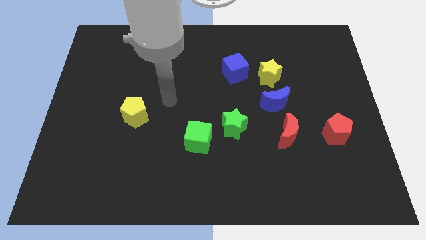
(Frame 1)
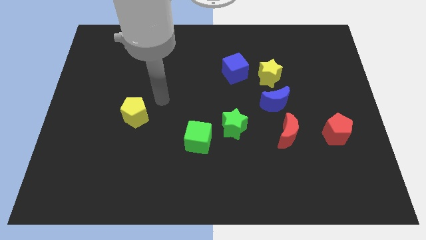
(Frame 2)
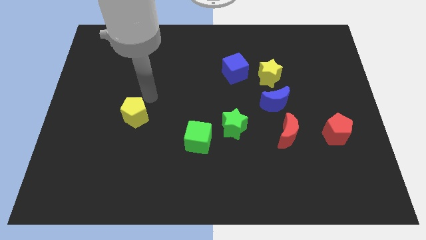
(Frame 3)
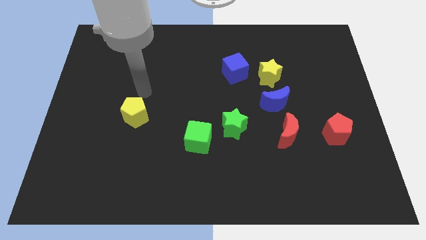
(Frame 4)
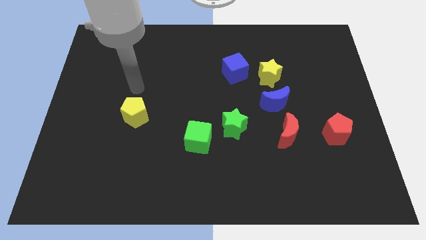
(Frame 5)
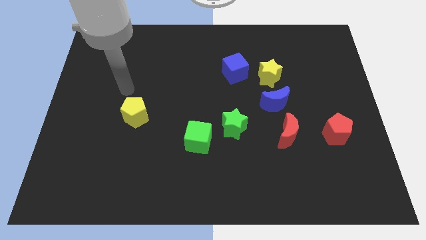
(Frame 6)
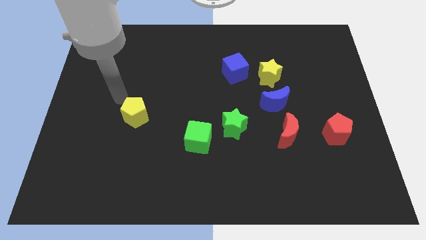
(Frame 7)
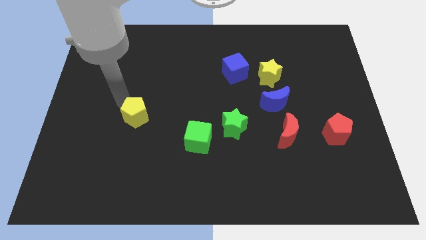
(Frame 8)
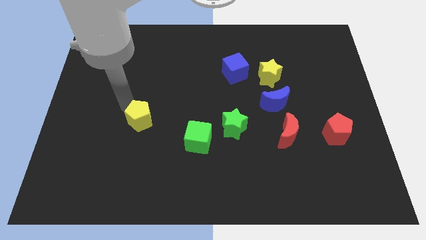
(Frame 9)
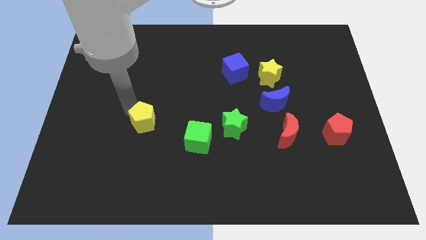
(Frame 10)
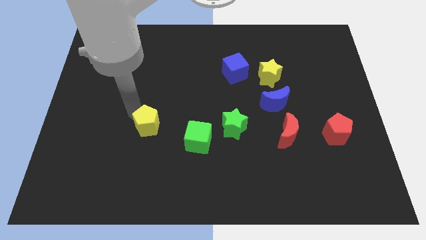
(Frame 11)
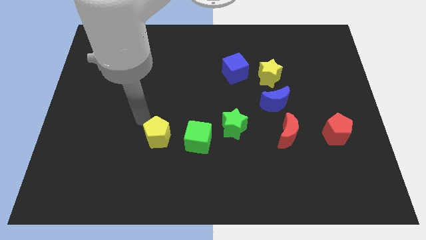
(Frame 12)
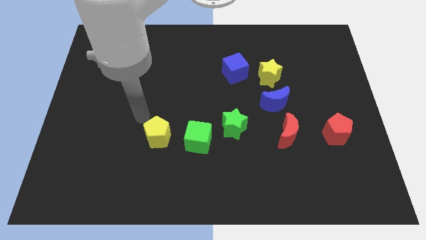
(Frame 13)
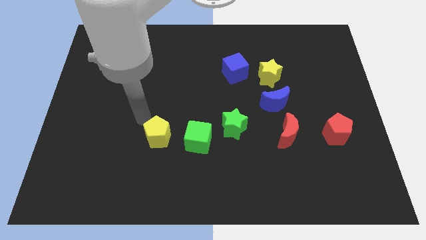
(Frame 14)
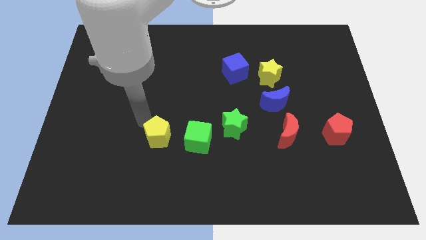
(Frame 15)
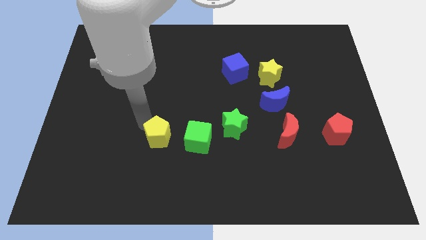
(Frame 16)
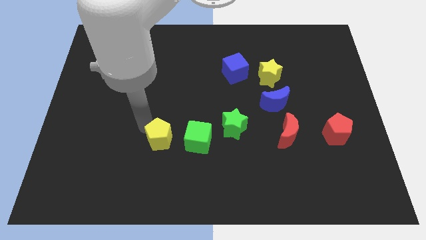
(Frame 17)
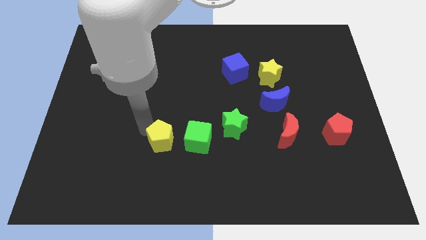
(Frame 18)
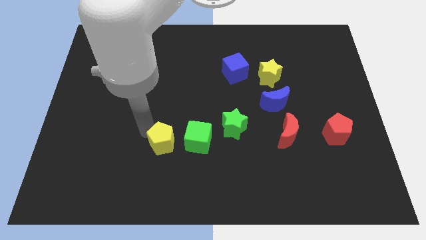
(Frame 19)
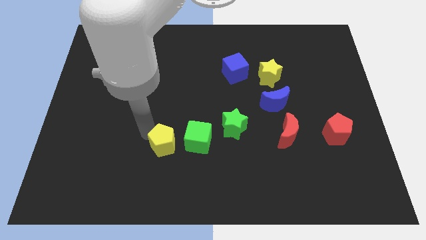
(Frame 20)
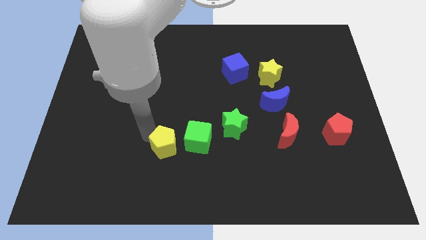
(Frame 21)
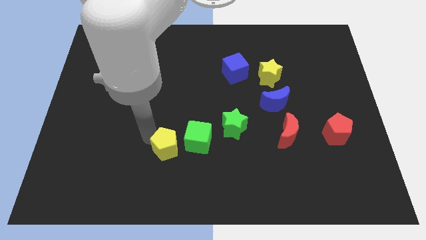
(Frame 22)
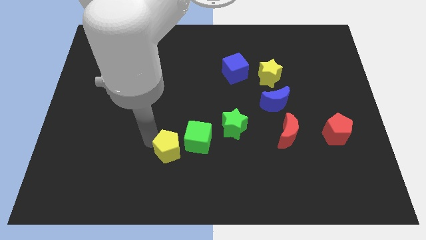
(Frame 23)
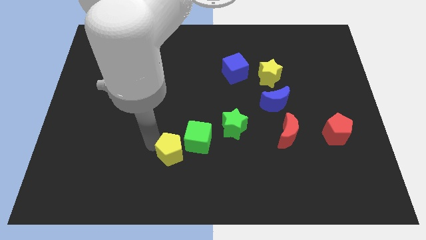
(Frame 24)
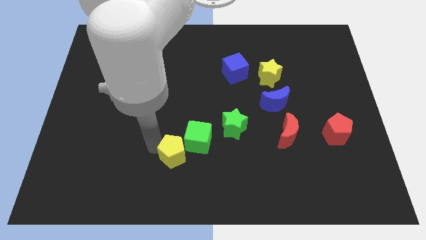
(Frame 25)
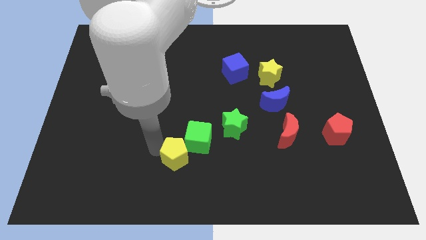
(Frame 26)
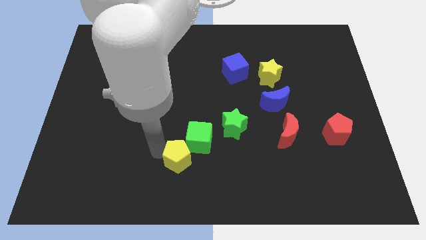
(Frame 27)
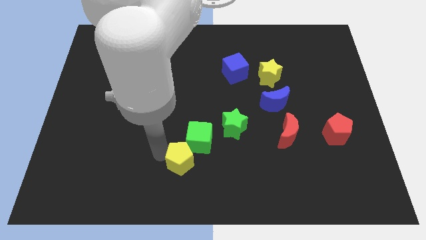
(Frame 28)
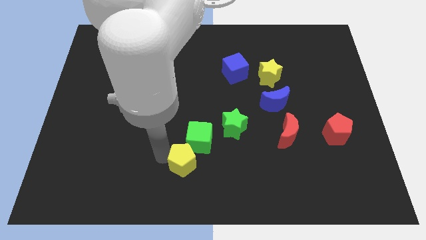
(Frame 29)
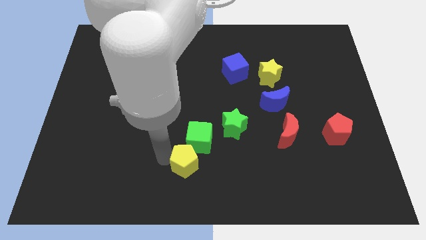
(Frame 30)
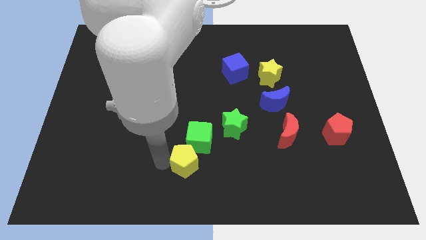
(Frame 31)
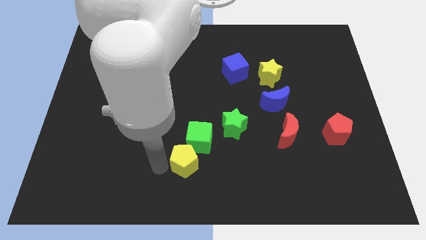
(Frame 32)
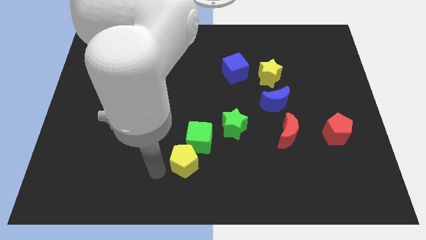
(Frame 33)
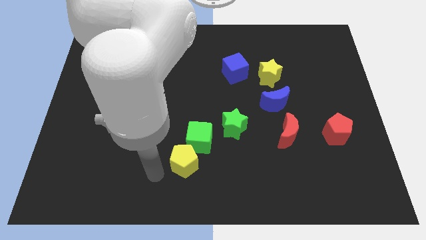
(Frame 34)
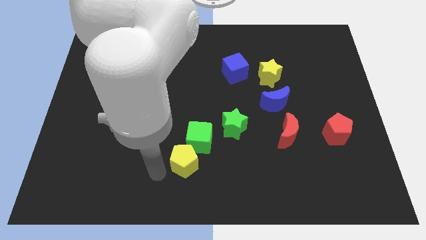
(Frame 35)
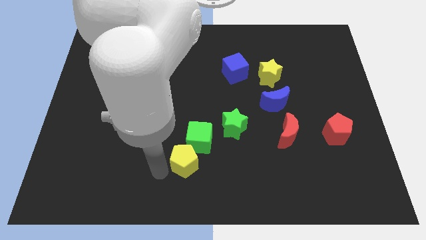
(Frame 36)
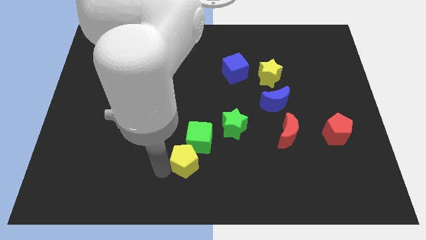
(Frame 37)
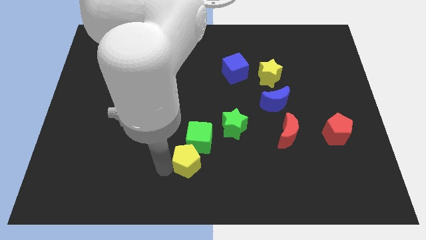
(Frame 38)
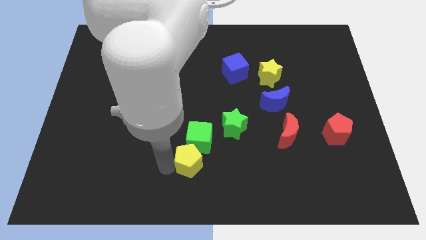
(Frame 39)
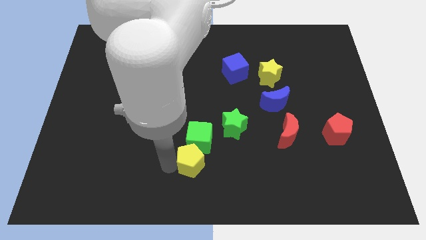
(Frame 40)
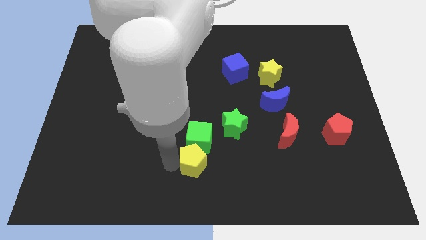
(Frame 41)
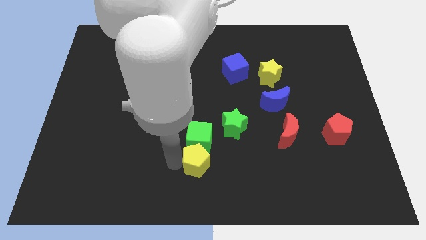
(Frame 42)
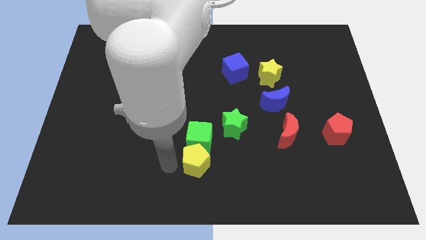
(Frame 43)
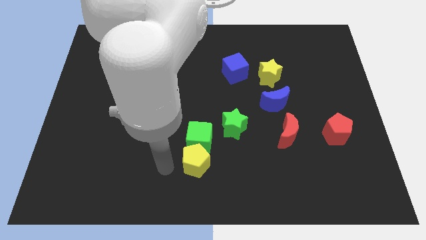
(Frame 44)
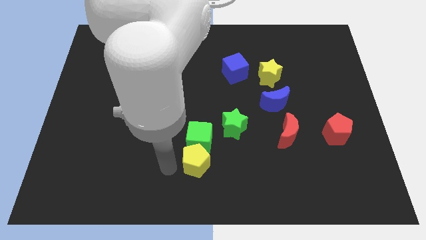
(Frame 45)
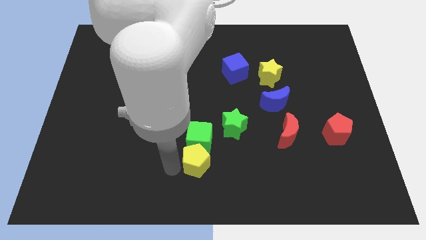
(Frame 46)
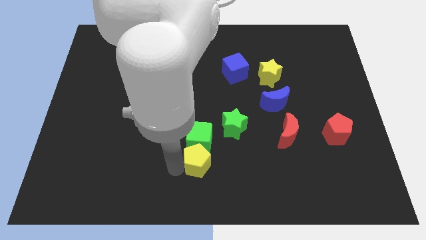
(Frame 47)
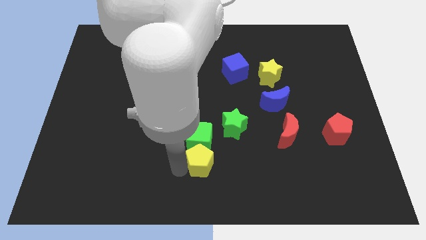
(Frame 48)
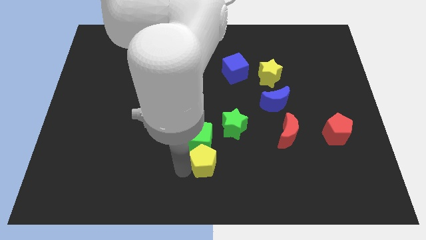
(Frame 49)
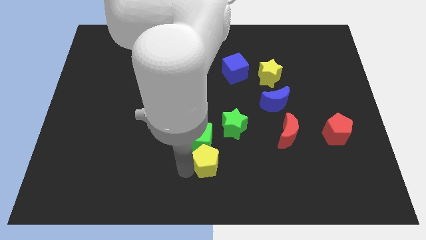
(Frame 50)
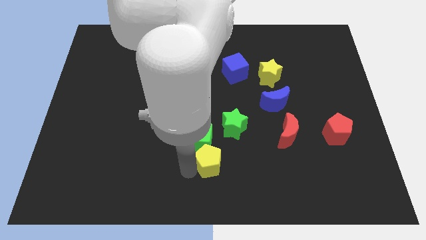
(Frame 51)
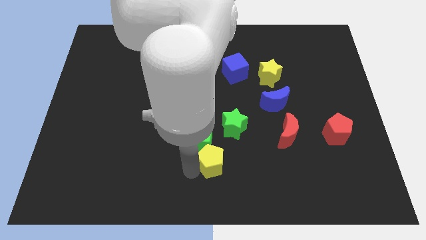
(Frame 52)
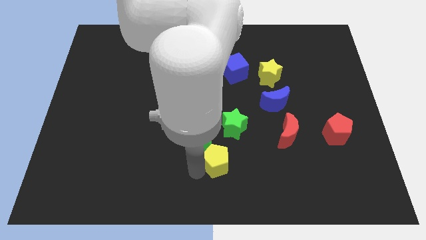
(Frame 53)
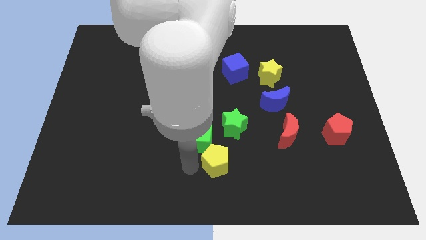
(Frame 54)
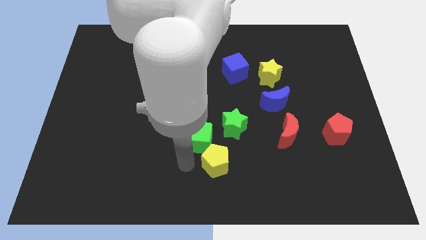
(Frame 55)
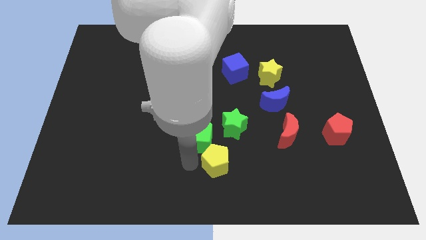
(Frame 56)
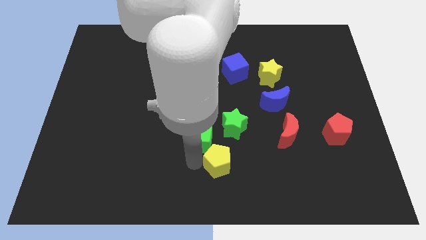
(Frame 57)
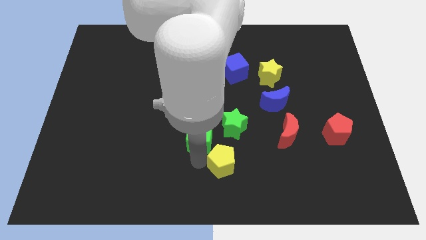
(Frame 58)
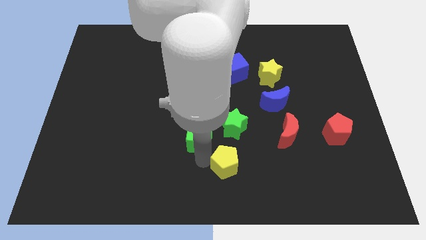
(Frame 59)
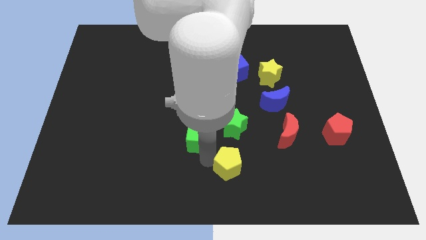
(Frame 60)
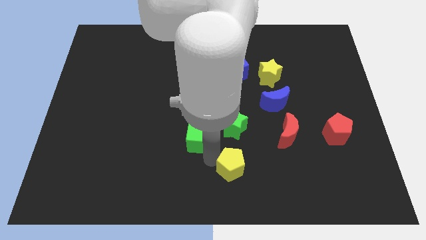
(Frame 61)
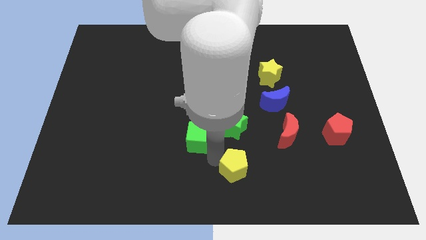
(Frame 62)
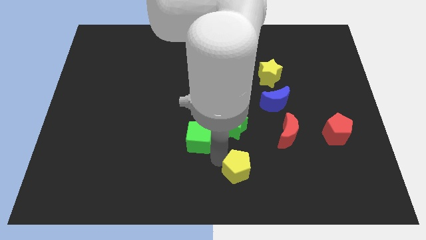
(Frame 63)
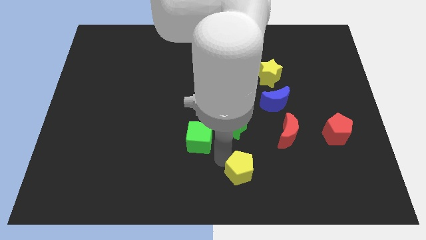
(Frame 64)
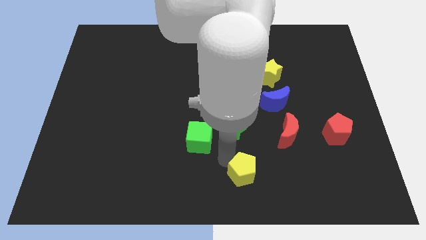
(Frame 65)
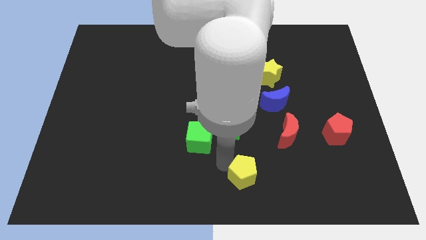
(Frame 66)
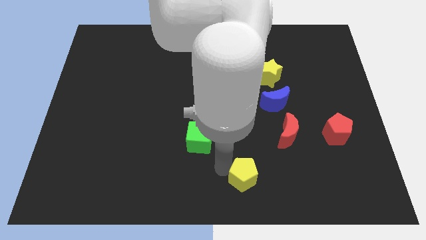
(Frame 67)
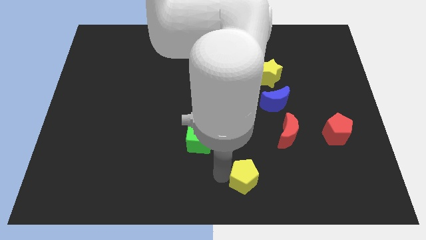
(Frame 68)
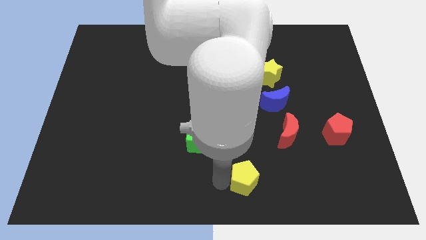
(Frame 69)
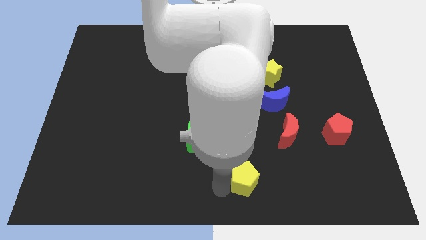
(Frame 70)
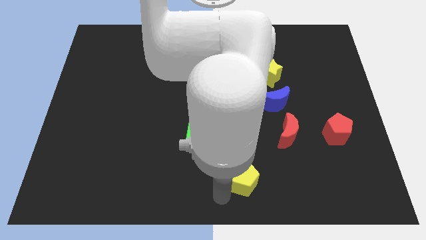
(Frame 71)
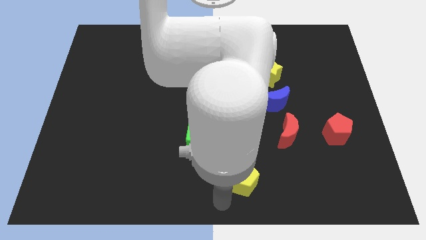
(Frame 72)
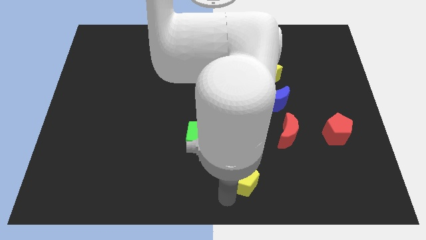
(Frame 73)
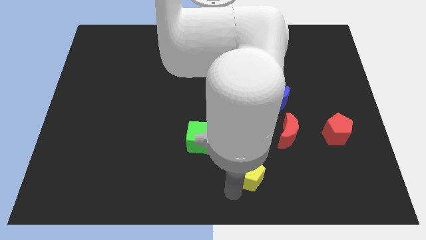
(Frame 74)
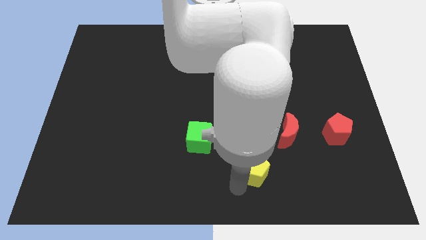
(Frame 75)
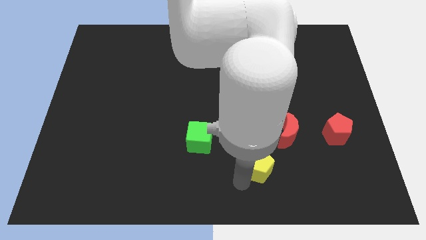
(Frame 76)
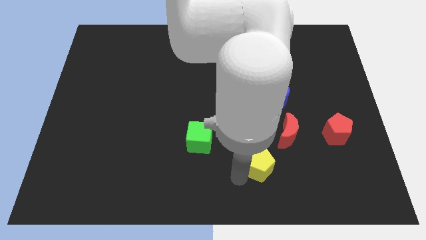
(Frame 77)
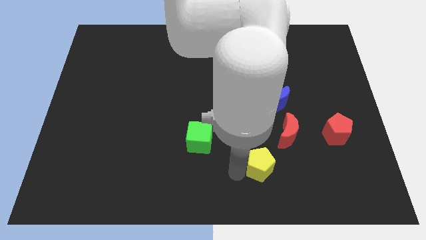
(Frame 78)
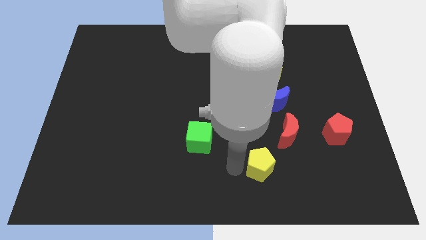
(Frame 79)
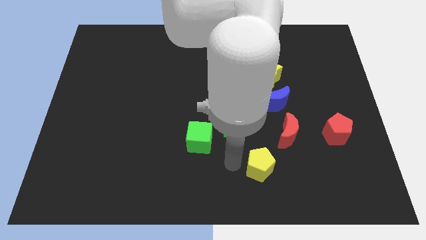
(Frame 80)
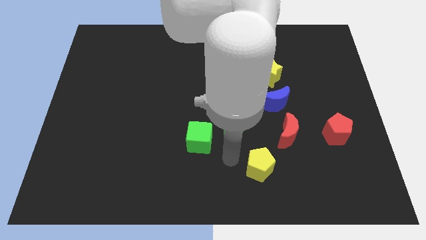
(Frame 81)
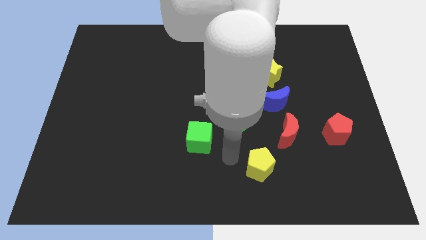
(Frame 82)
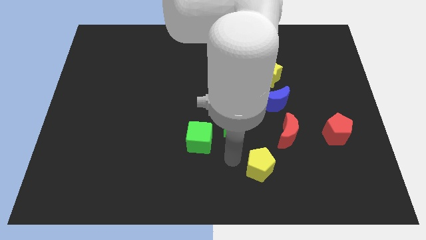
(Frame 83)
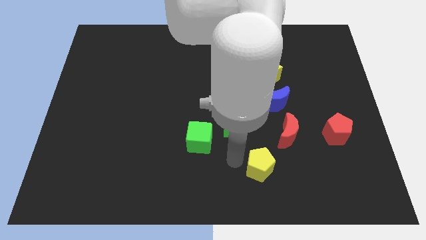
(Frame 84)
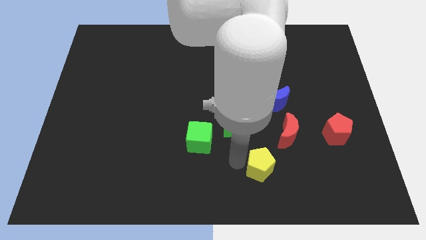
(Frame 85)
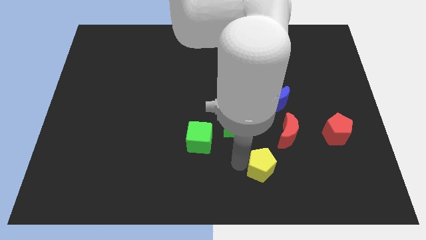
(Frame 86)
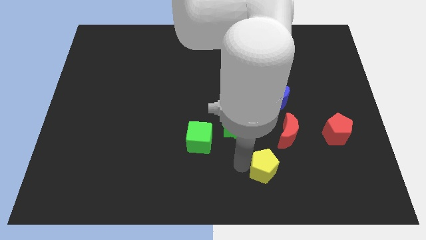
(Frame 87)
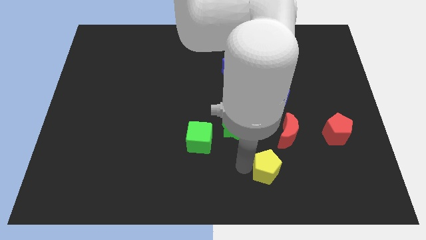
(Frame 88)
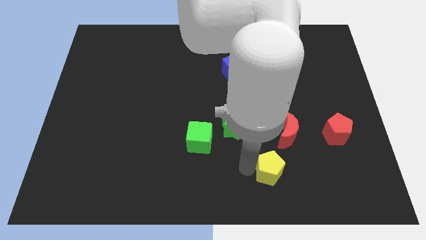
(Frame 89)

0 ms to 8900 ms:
slide the yellow pentagon to the bottom of the red moon
